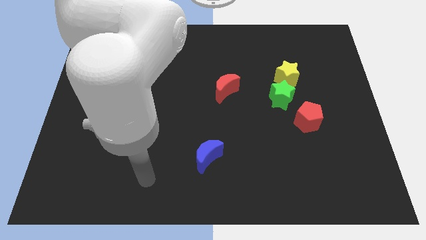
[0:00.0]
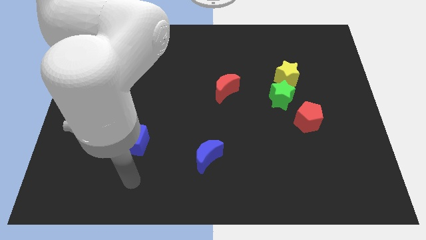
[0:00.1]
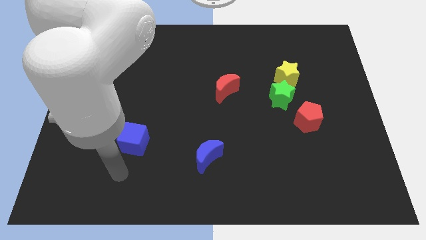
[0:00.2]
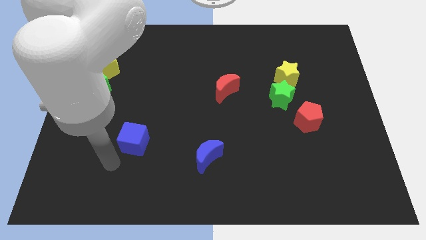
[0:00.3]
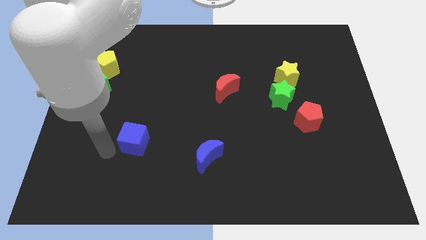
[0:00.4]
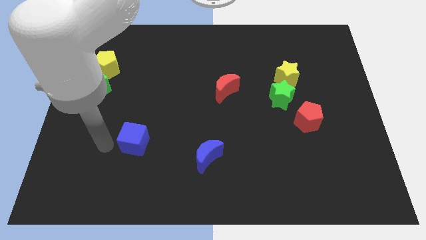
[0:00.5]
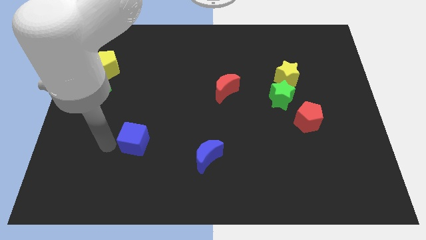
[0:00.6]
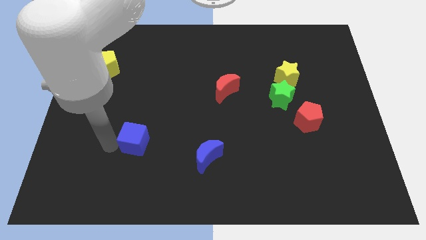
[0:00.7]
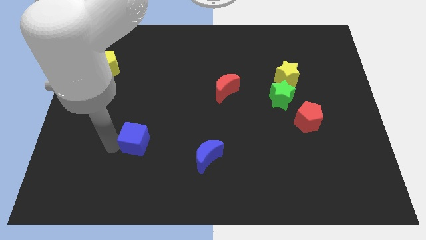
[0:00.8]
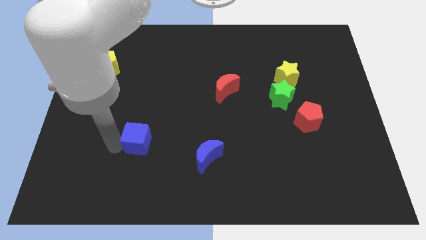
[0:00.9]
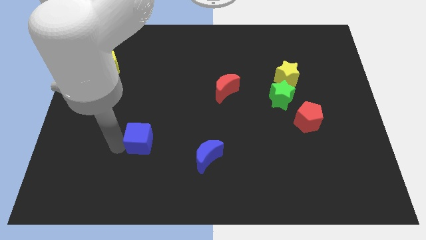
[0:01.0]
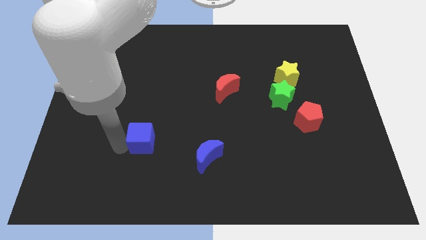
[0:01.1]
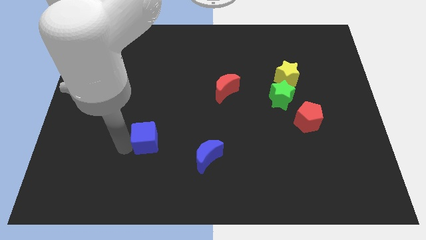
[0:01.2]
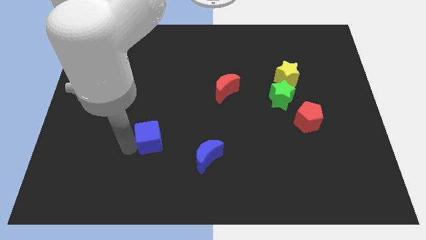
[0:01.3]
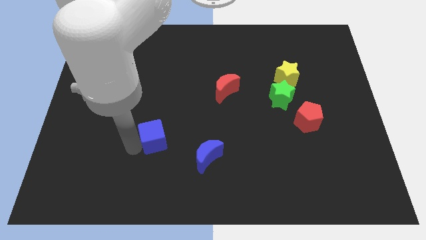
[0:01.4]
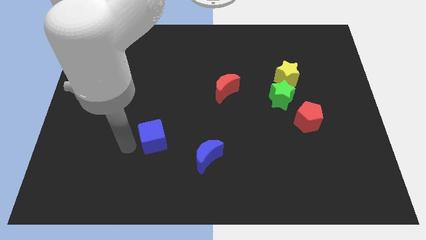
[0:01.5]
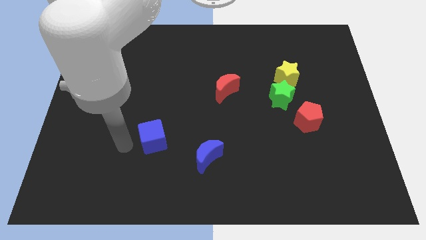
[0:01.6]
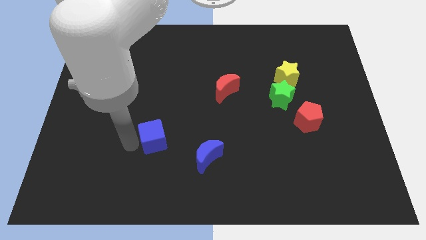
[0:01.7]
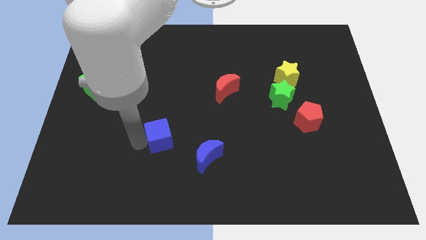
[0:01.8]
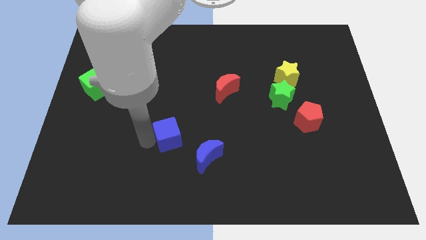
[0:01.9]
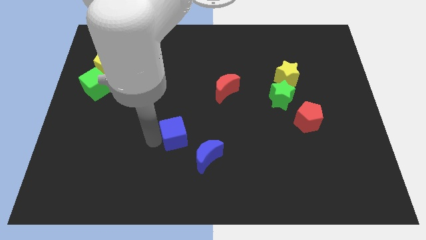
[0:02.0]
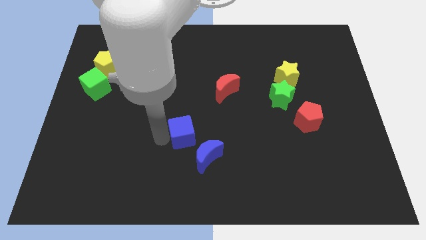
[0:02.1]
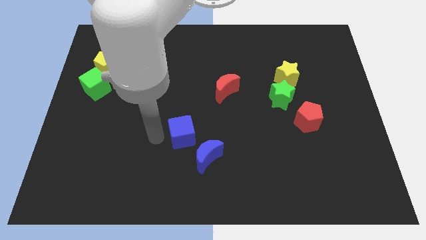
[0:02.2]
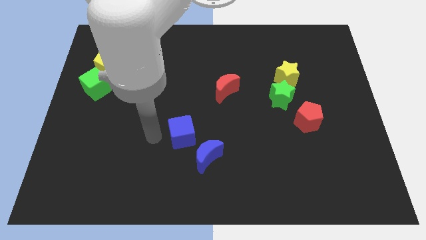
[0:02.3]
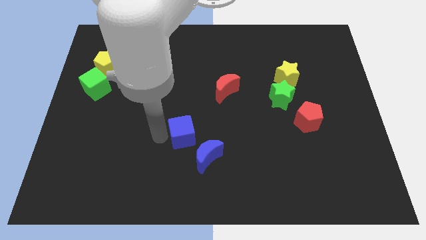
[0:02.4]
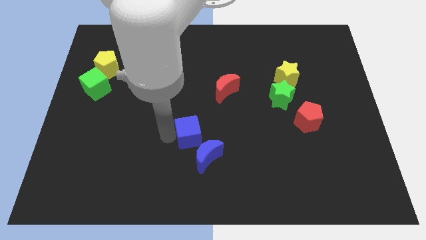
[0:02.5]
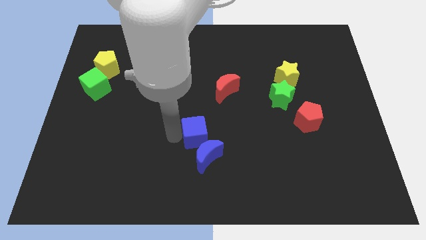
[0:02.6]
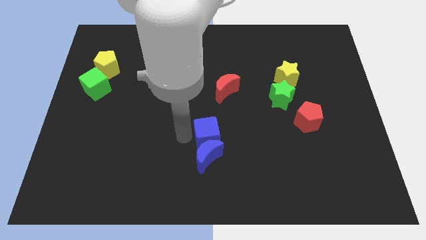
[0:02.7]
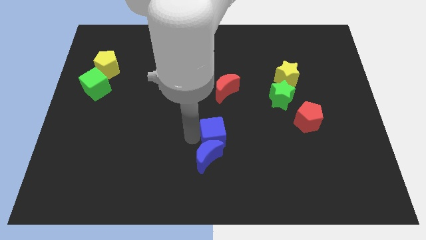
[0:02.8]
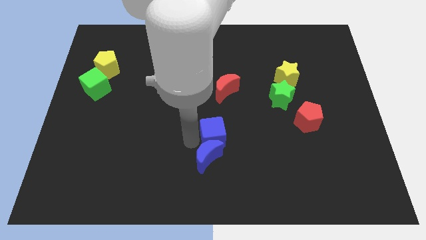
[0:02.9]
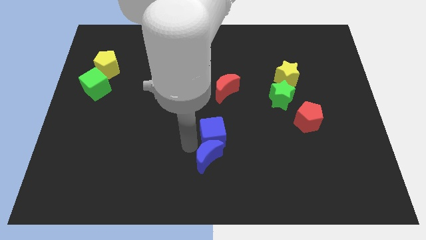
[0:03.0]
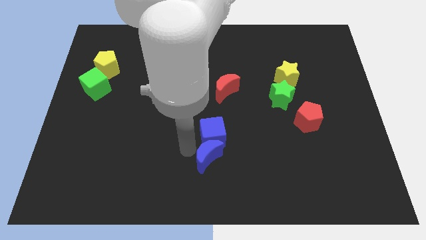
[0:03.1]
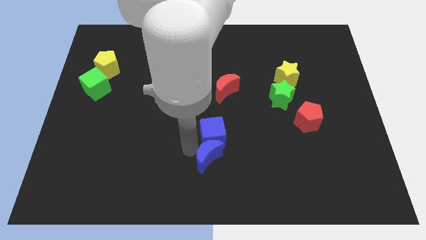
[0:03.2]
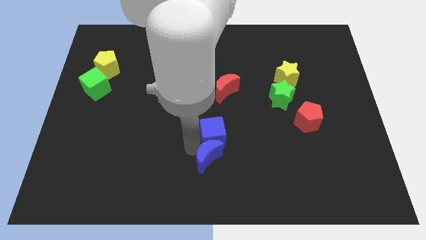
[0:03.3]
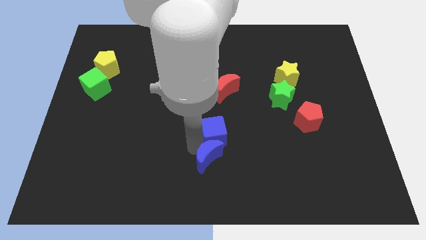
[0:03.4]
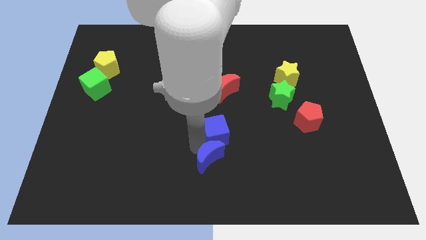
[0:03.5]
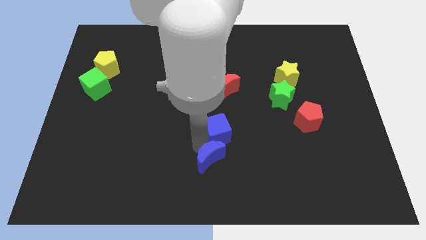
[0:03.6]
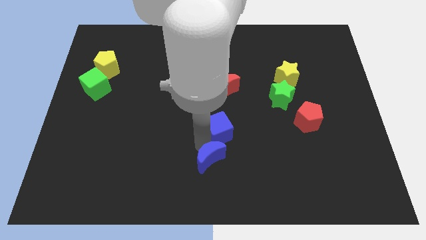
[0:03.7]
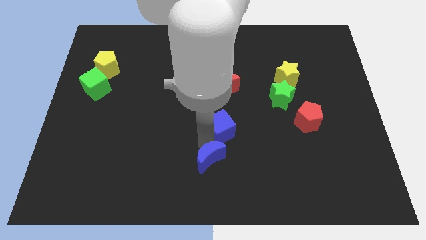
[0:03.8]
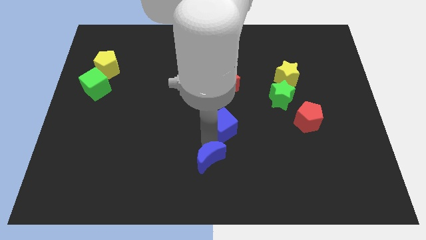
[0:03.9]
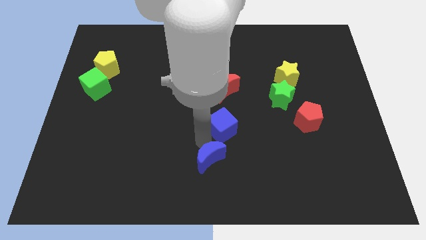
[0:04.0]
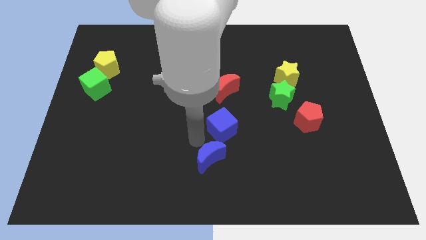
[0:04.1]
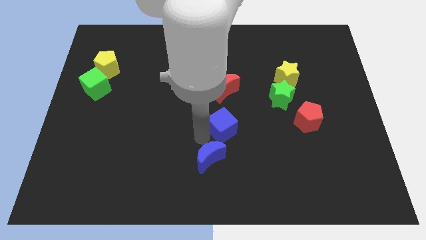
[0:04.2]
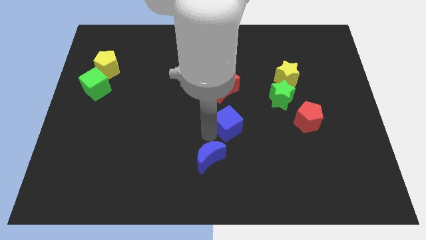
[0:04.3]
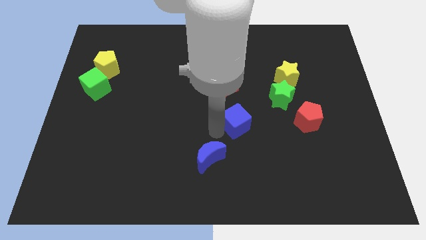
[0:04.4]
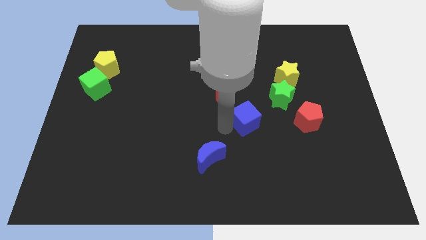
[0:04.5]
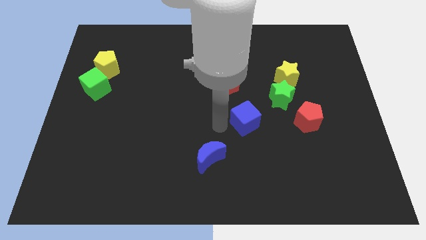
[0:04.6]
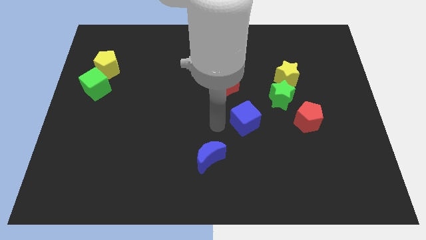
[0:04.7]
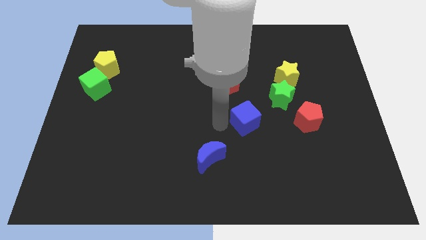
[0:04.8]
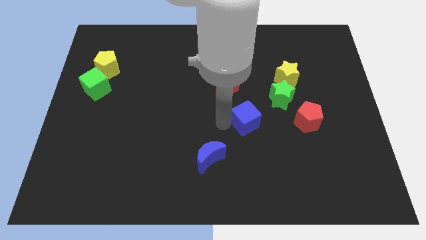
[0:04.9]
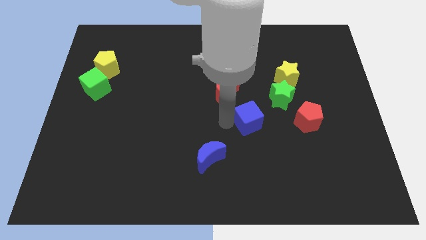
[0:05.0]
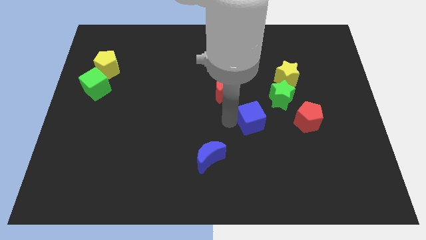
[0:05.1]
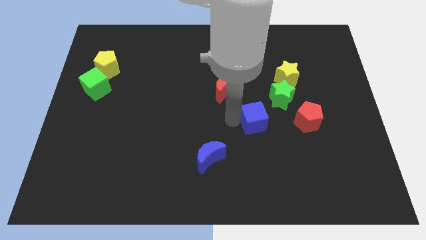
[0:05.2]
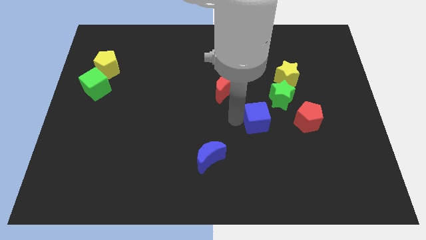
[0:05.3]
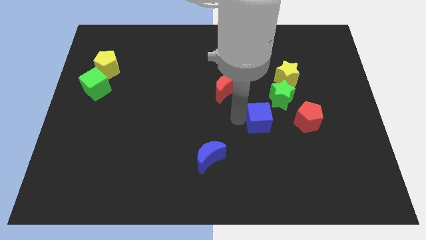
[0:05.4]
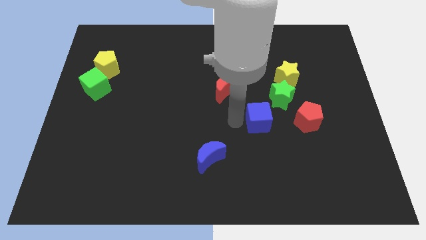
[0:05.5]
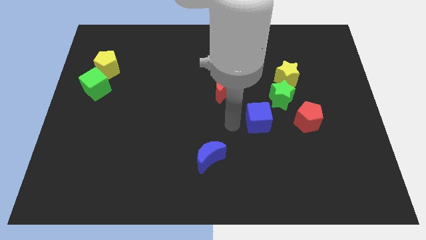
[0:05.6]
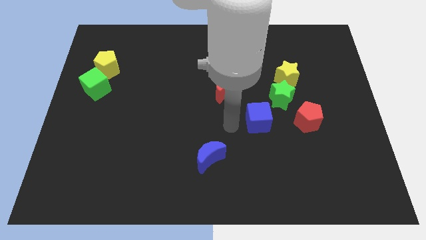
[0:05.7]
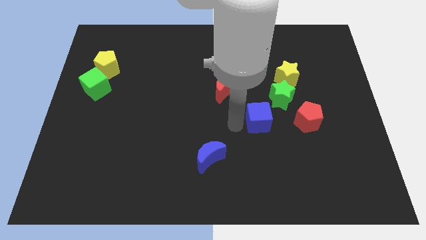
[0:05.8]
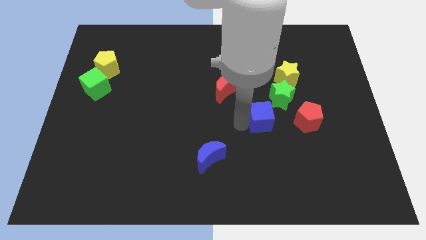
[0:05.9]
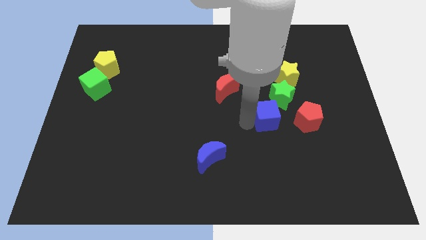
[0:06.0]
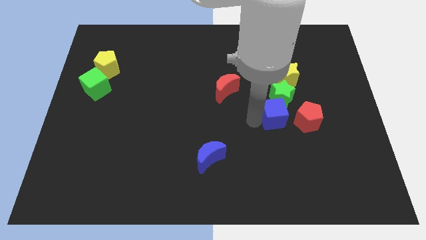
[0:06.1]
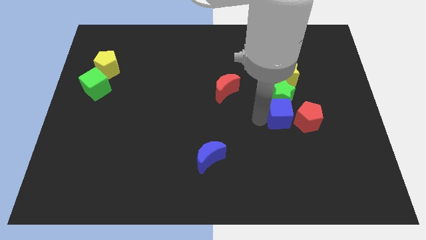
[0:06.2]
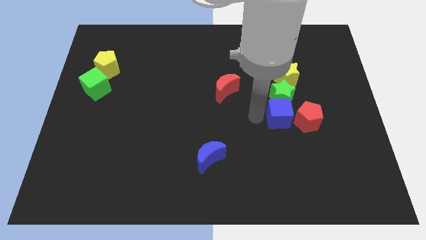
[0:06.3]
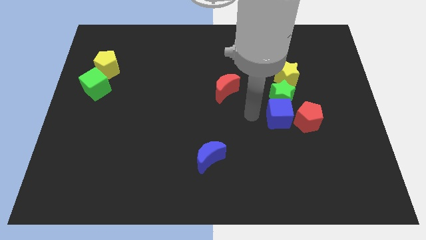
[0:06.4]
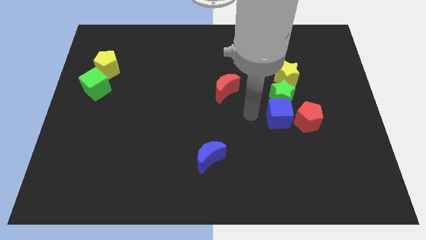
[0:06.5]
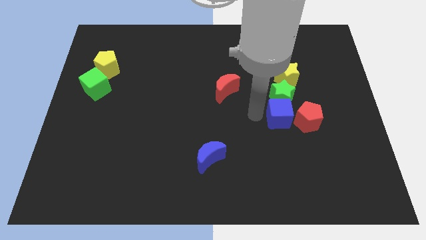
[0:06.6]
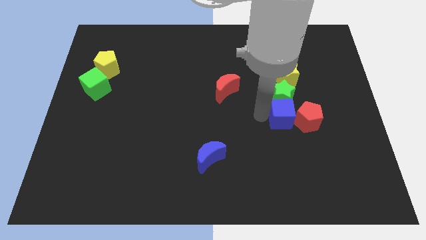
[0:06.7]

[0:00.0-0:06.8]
slide the blue cube towards the red pentagon
